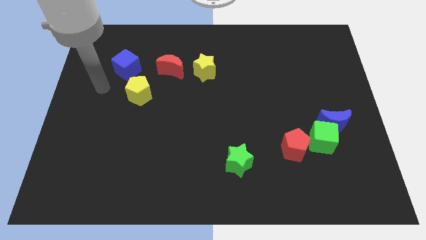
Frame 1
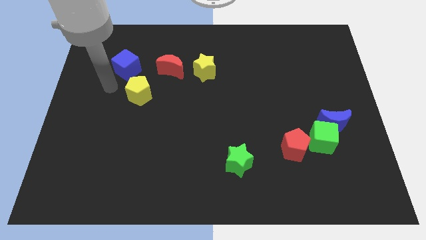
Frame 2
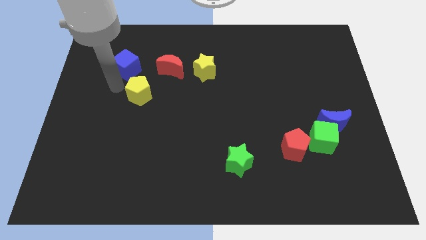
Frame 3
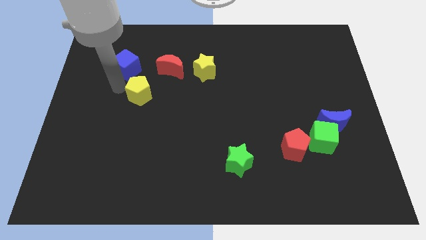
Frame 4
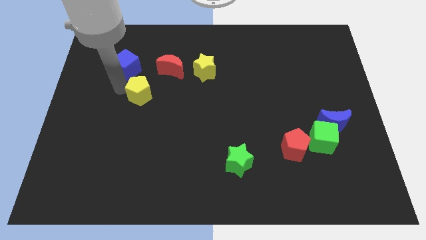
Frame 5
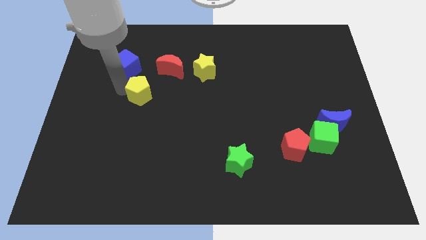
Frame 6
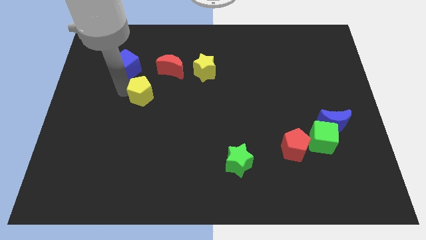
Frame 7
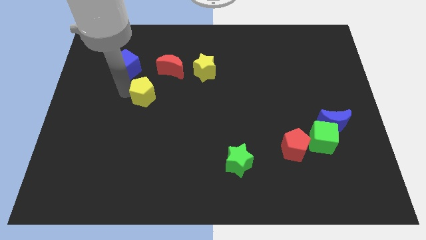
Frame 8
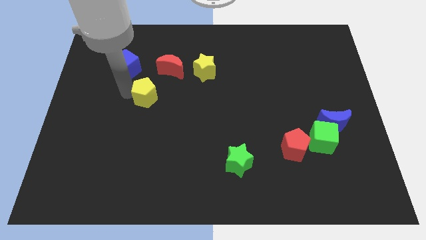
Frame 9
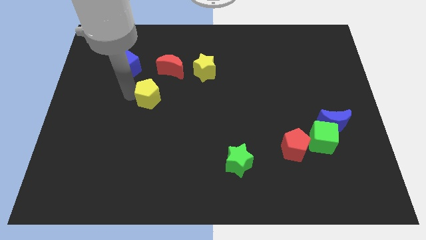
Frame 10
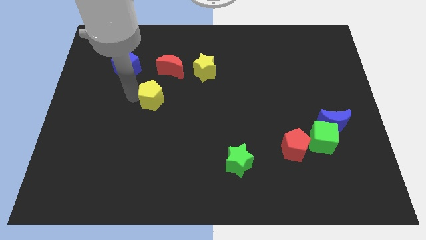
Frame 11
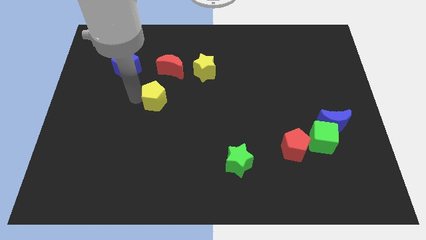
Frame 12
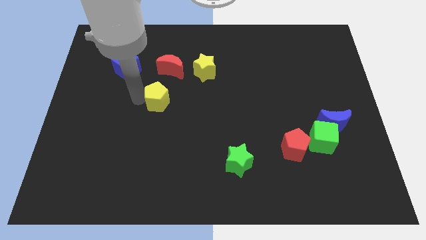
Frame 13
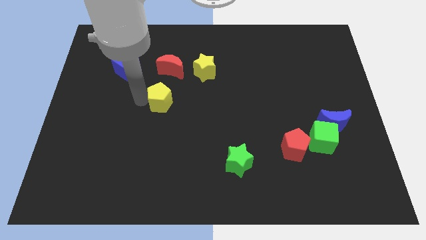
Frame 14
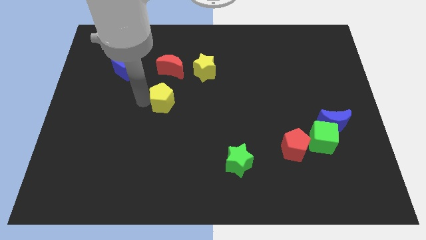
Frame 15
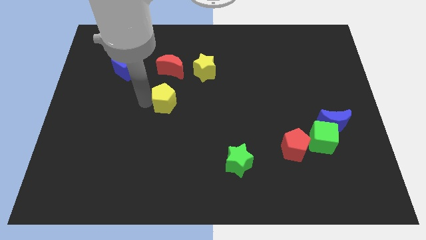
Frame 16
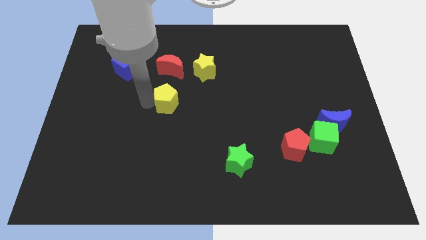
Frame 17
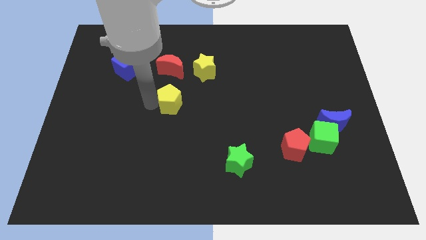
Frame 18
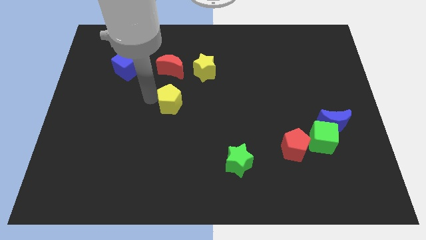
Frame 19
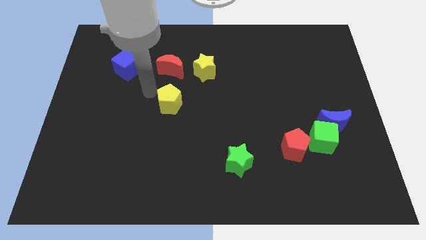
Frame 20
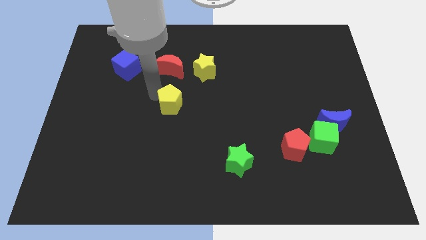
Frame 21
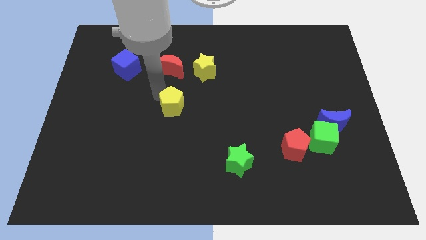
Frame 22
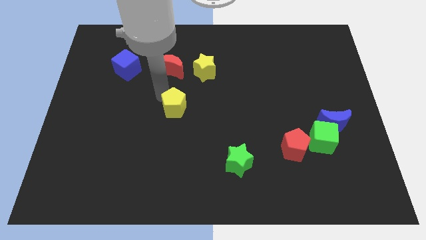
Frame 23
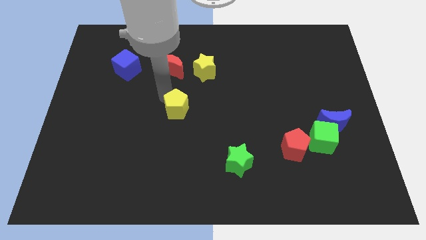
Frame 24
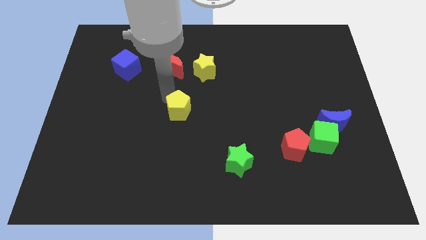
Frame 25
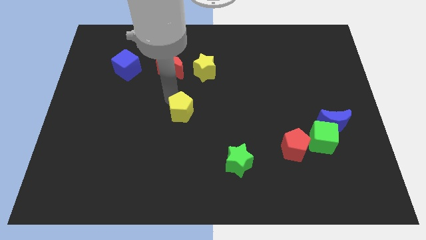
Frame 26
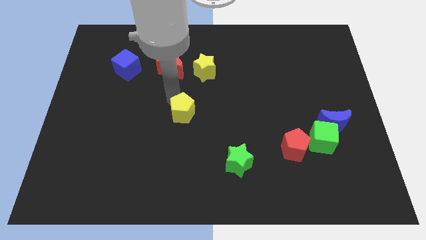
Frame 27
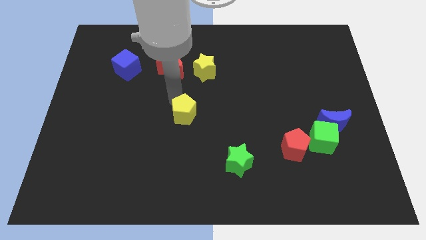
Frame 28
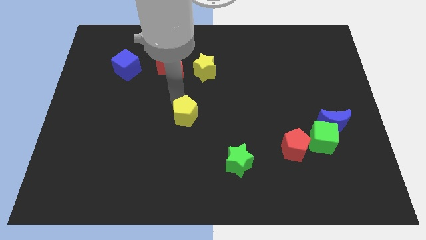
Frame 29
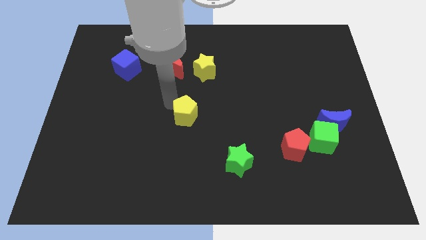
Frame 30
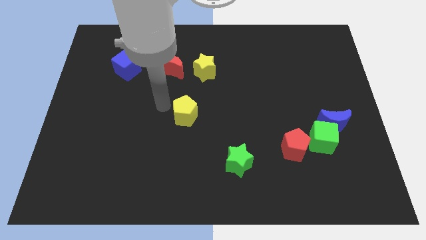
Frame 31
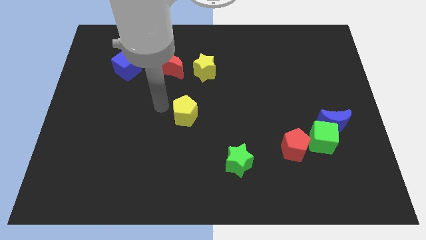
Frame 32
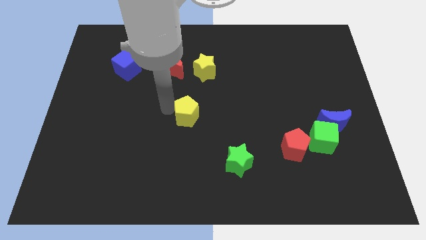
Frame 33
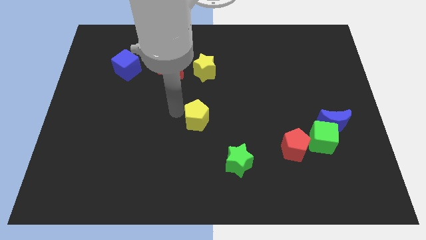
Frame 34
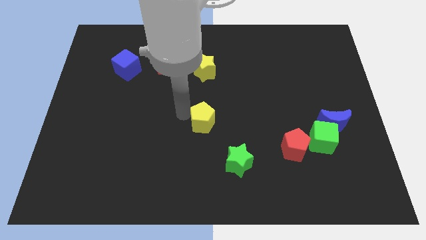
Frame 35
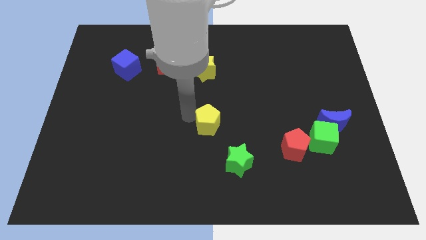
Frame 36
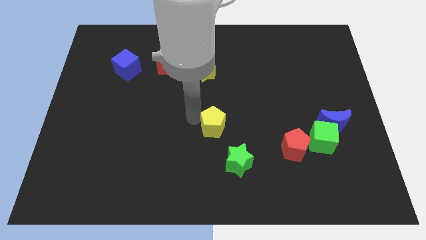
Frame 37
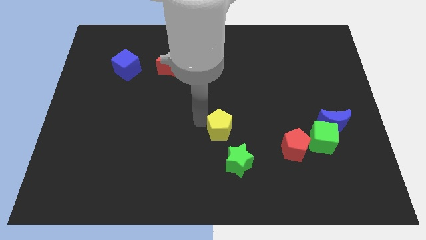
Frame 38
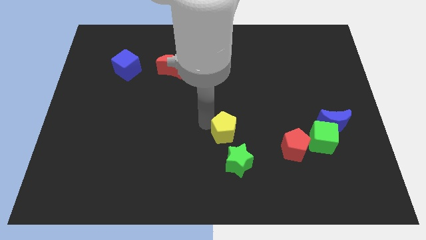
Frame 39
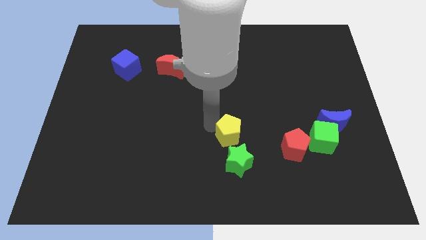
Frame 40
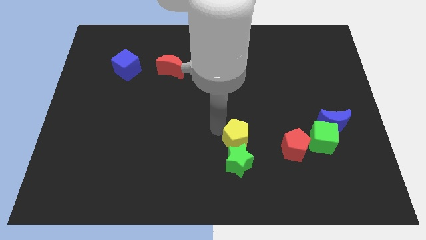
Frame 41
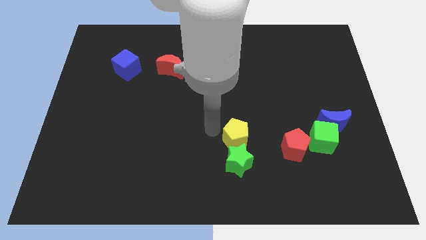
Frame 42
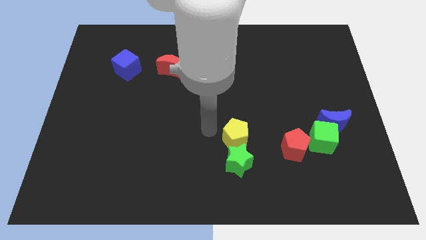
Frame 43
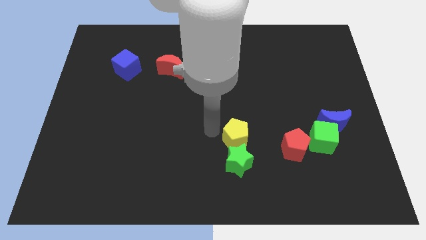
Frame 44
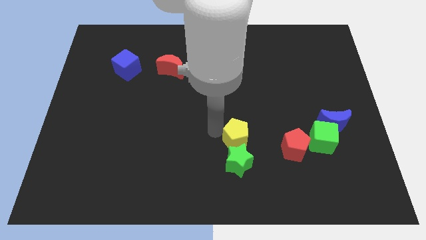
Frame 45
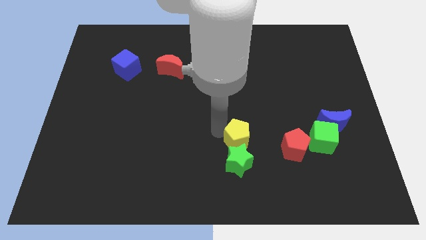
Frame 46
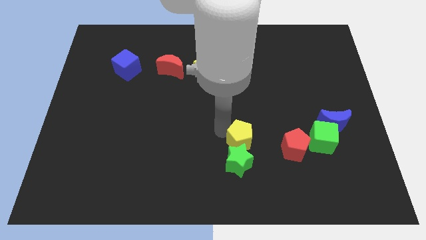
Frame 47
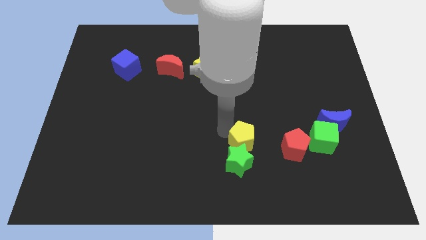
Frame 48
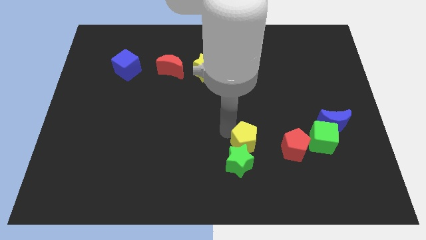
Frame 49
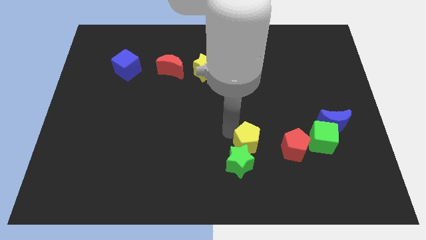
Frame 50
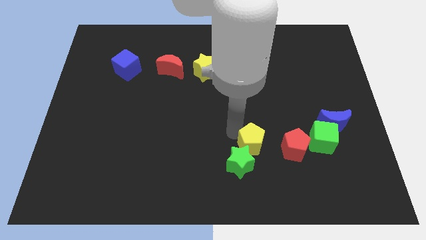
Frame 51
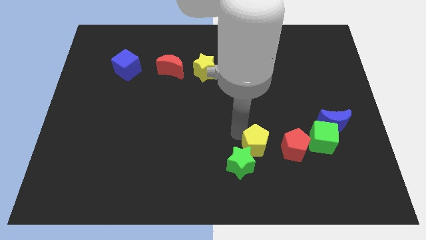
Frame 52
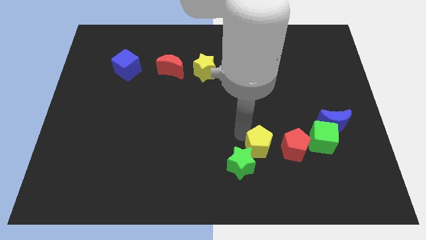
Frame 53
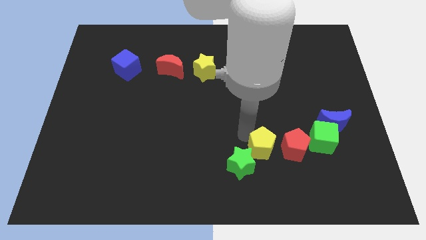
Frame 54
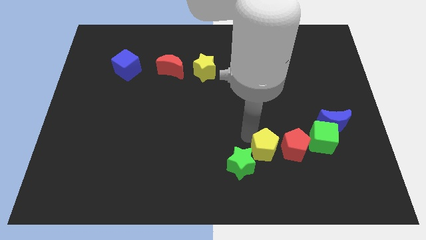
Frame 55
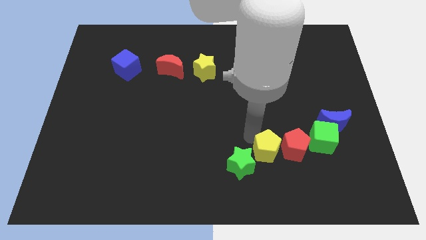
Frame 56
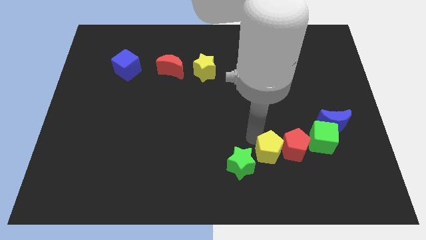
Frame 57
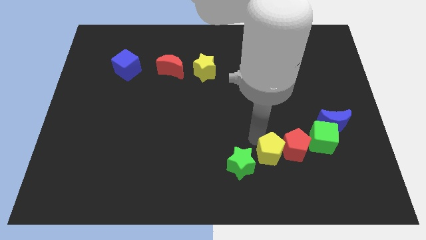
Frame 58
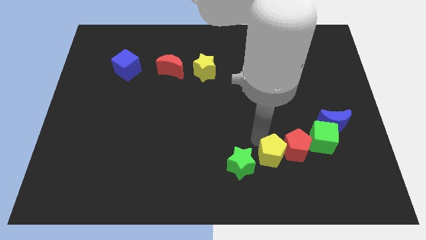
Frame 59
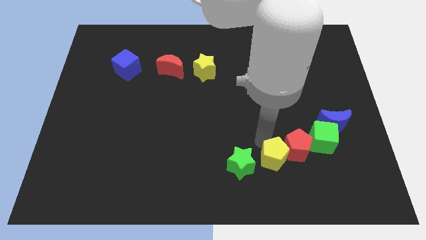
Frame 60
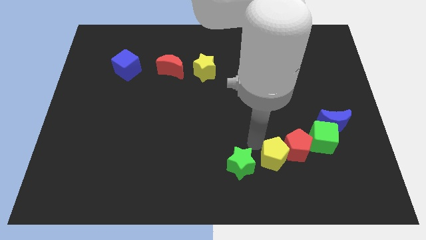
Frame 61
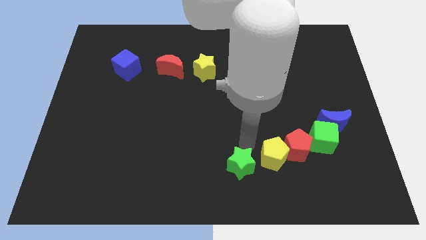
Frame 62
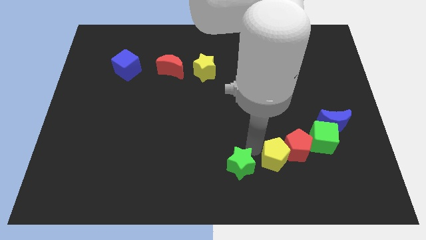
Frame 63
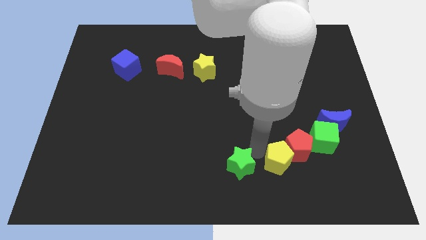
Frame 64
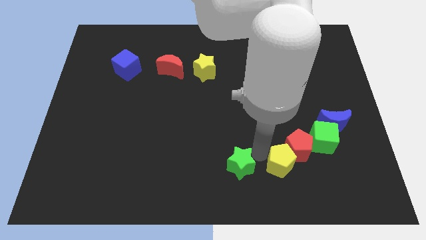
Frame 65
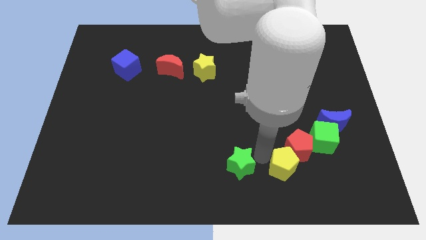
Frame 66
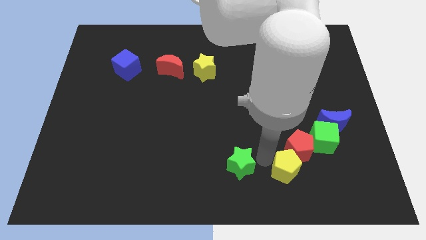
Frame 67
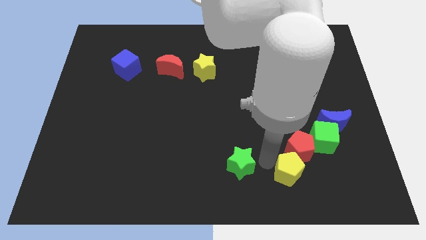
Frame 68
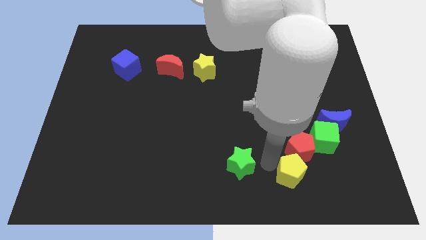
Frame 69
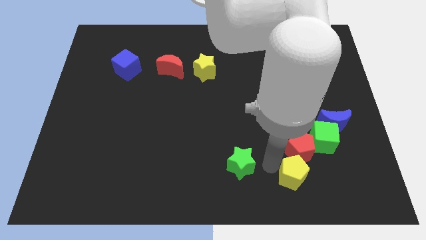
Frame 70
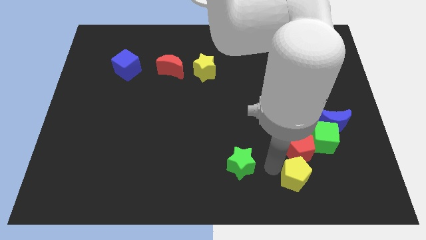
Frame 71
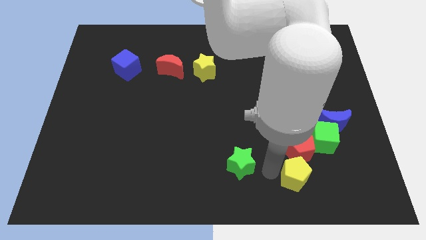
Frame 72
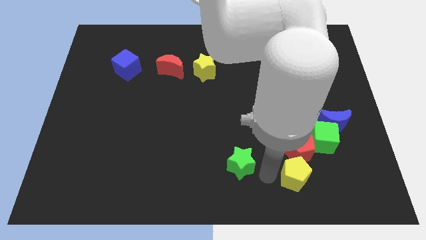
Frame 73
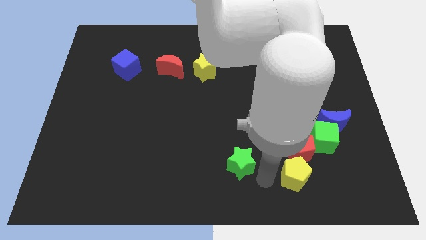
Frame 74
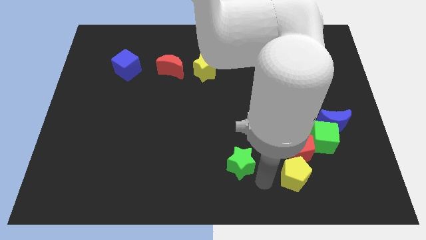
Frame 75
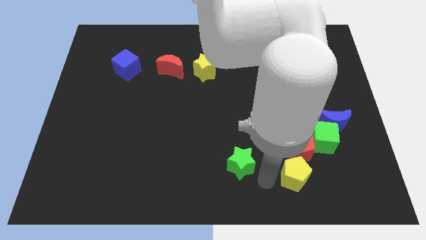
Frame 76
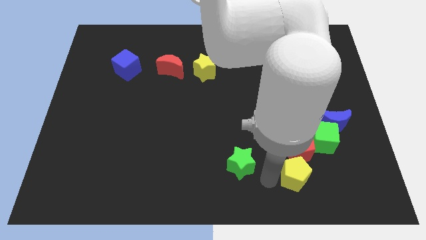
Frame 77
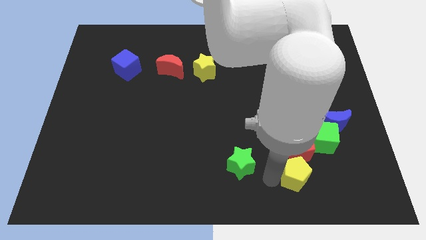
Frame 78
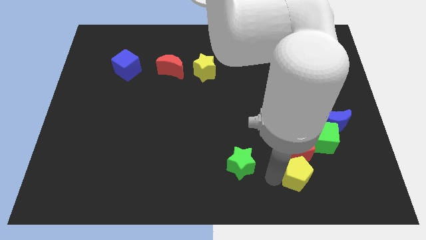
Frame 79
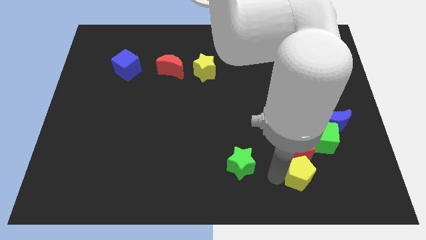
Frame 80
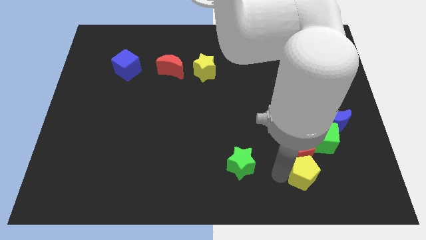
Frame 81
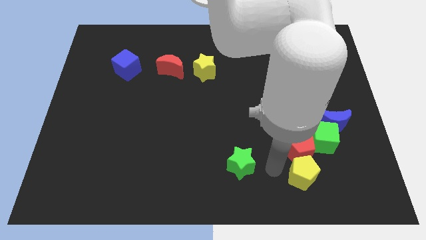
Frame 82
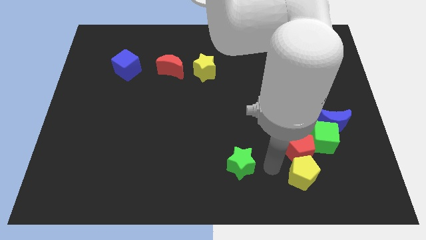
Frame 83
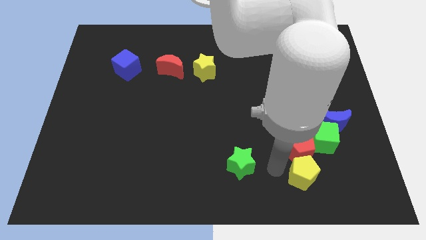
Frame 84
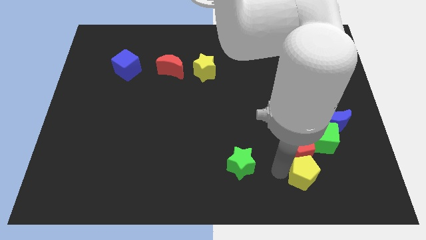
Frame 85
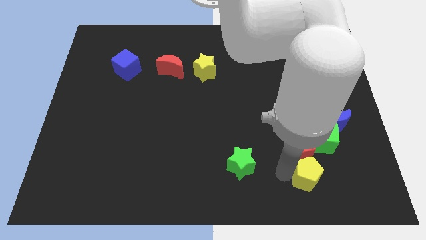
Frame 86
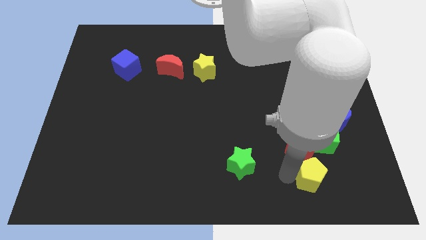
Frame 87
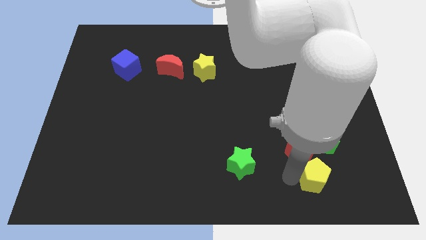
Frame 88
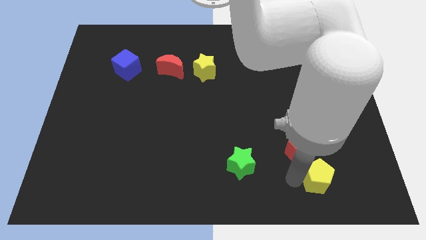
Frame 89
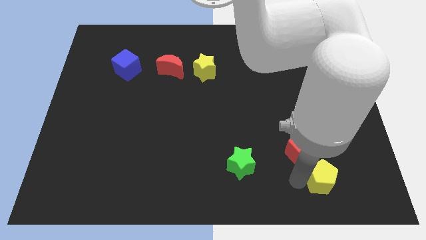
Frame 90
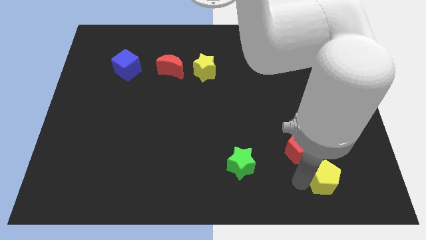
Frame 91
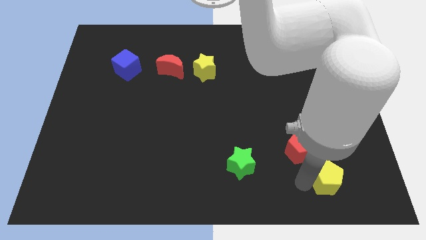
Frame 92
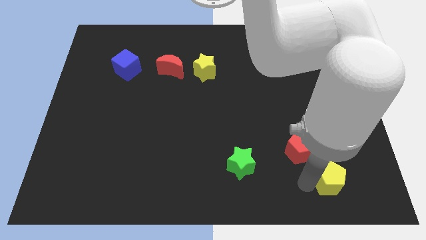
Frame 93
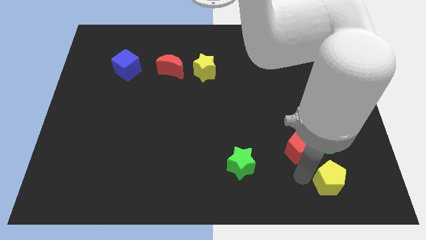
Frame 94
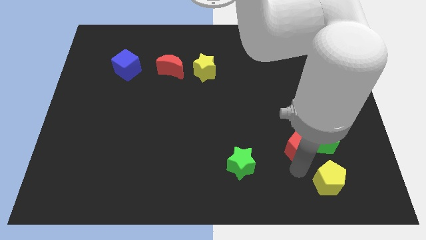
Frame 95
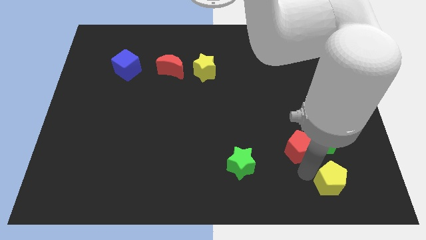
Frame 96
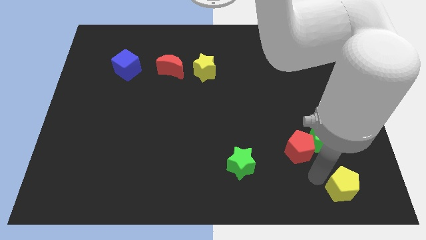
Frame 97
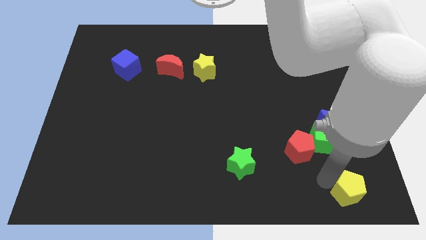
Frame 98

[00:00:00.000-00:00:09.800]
push the yellow pentagon to the bottom right
